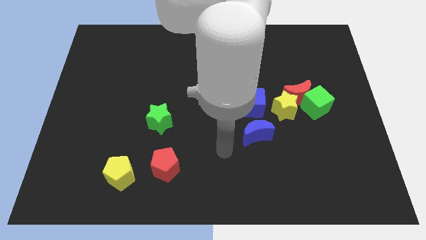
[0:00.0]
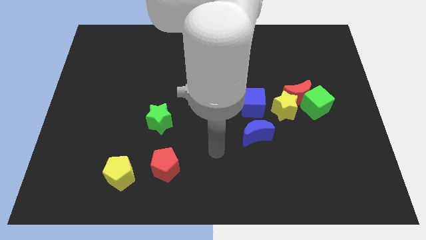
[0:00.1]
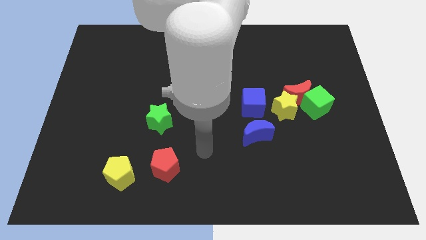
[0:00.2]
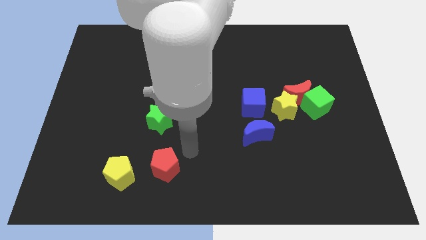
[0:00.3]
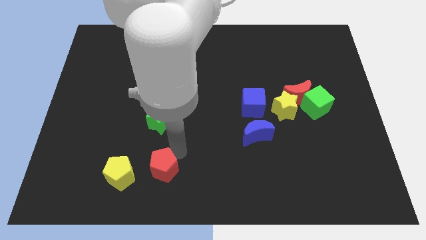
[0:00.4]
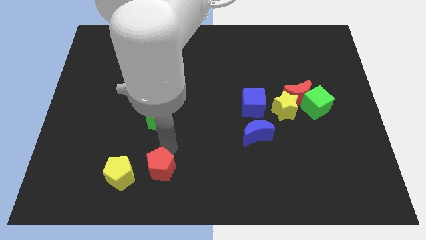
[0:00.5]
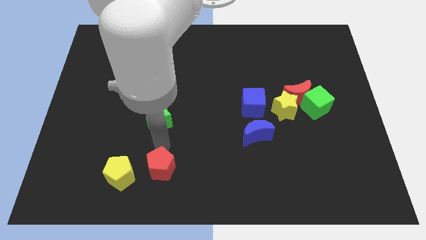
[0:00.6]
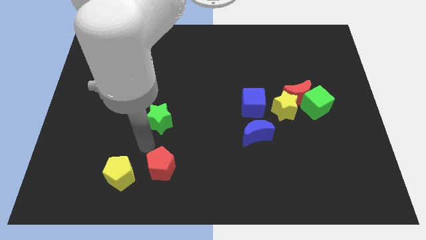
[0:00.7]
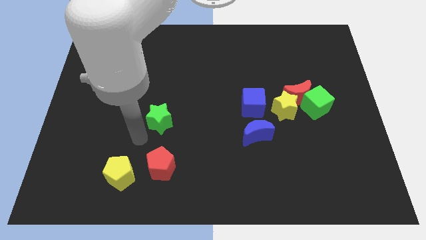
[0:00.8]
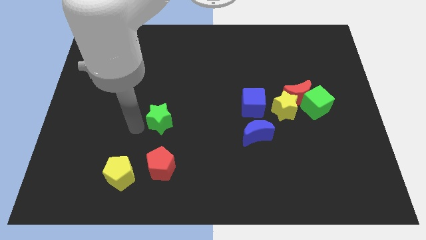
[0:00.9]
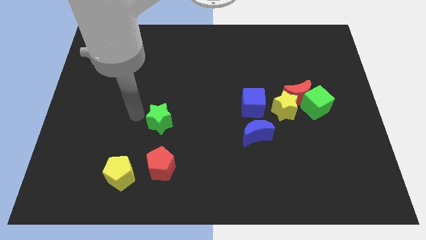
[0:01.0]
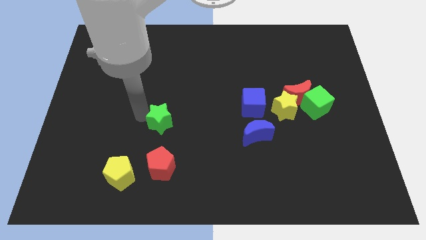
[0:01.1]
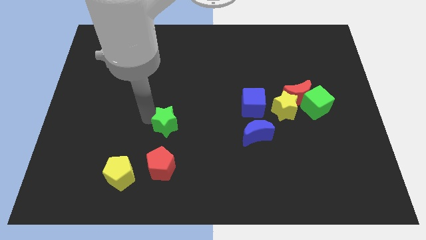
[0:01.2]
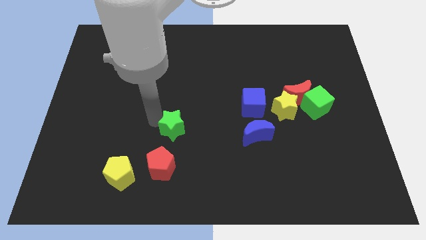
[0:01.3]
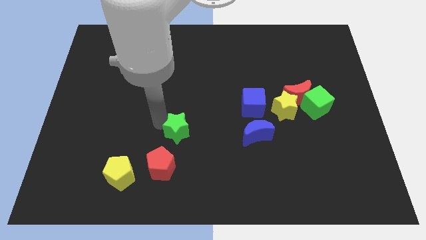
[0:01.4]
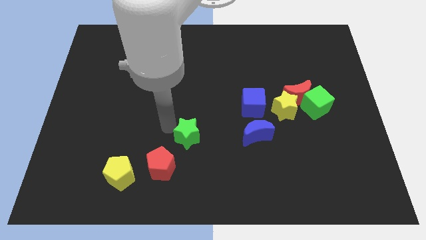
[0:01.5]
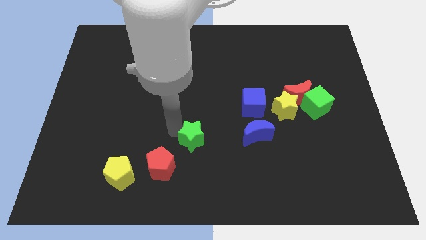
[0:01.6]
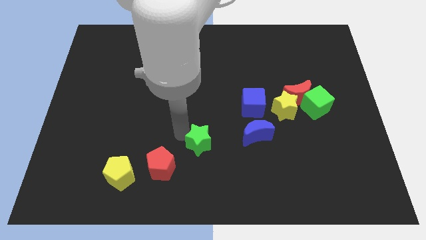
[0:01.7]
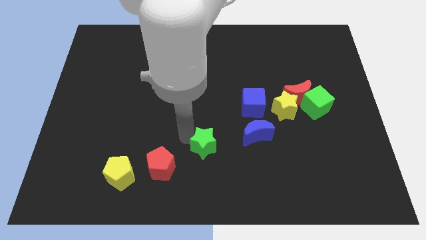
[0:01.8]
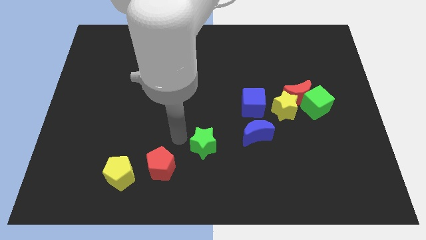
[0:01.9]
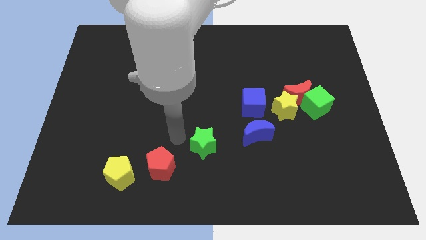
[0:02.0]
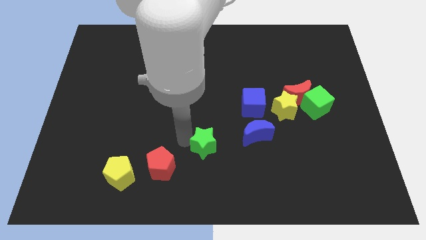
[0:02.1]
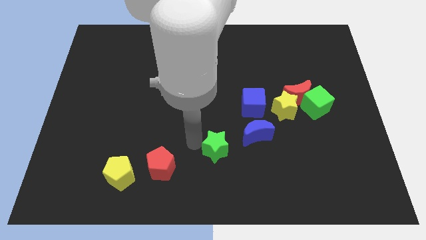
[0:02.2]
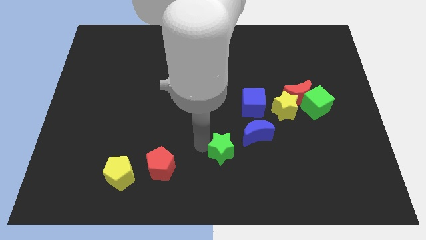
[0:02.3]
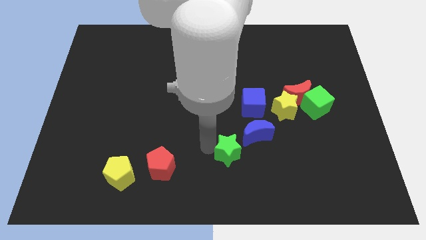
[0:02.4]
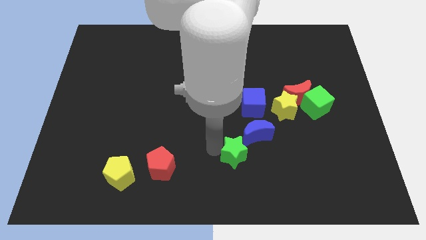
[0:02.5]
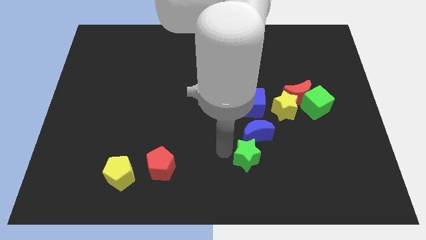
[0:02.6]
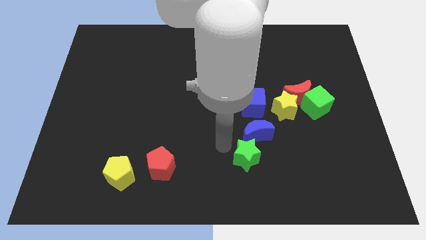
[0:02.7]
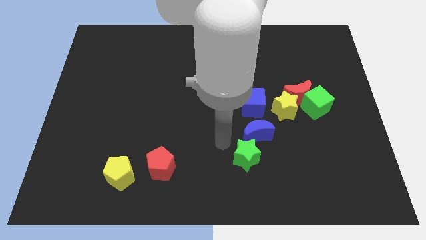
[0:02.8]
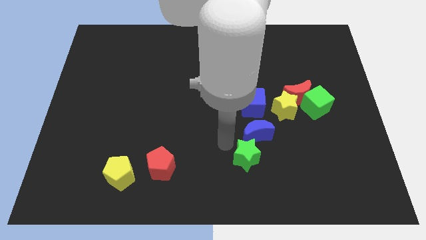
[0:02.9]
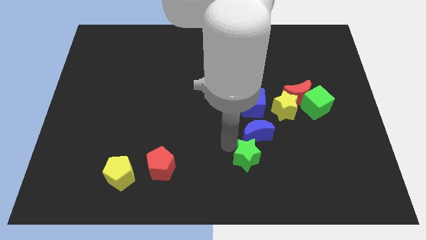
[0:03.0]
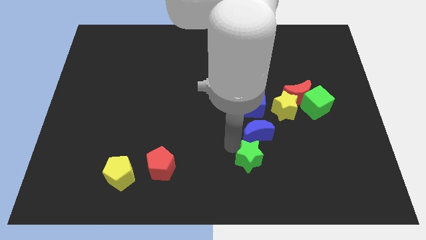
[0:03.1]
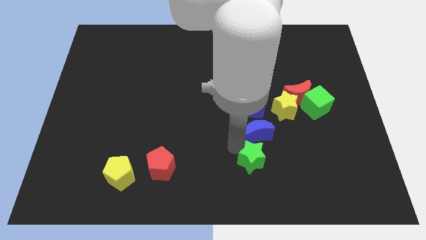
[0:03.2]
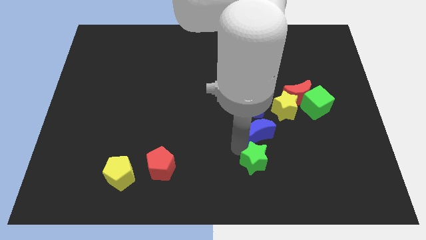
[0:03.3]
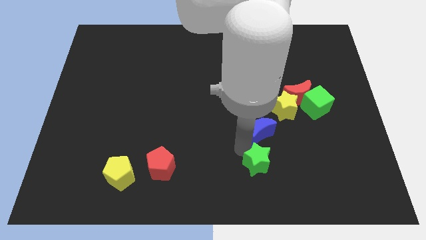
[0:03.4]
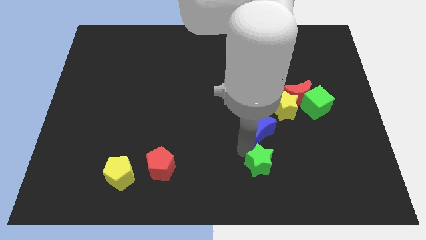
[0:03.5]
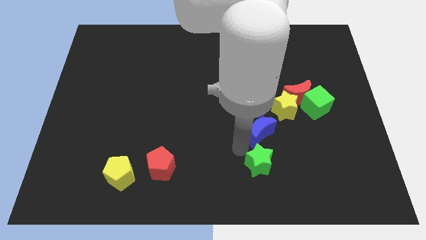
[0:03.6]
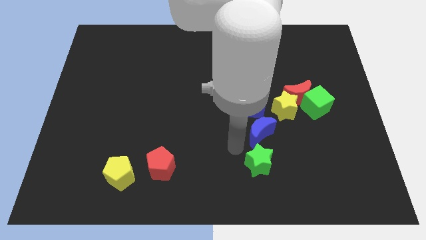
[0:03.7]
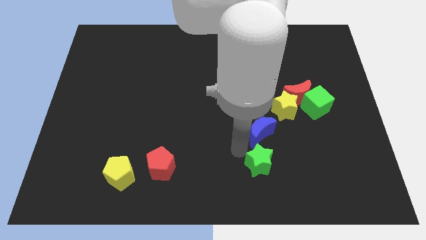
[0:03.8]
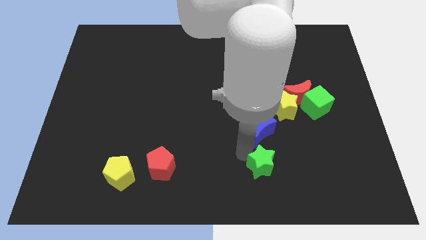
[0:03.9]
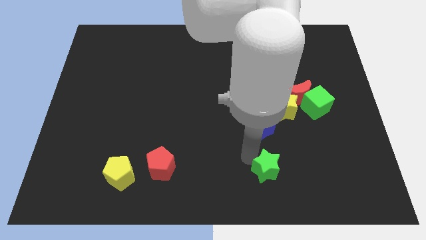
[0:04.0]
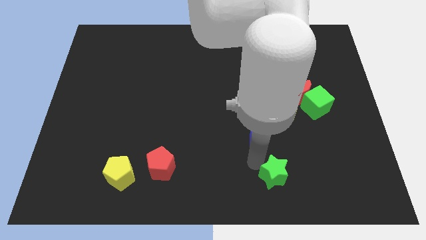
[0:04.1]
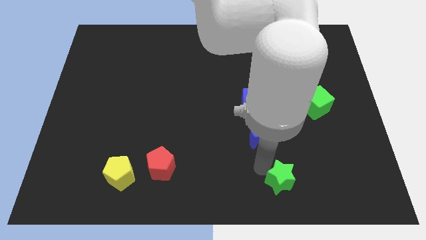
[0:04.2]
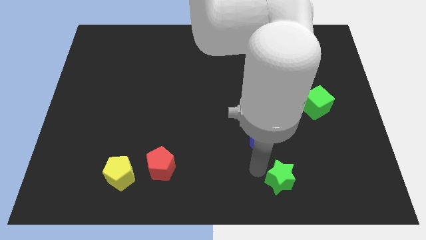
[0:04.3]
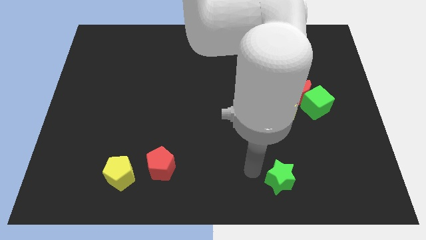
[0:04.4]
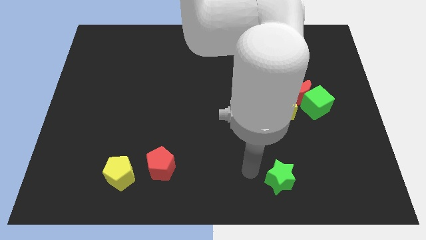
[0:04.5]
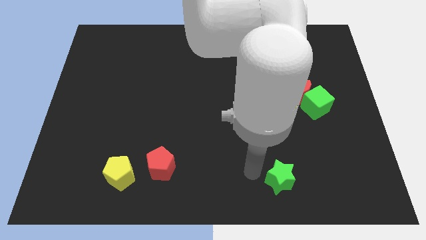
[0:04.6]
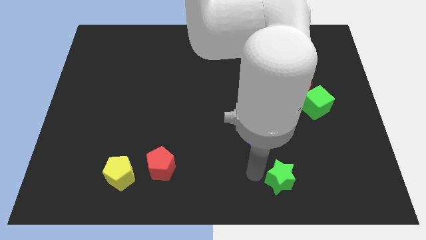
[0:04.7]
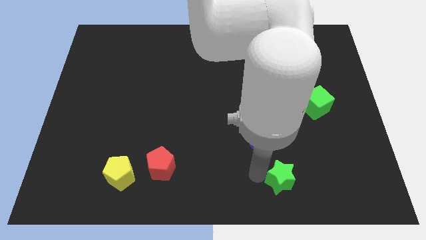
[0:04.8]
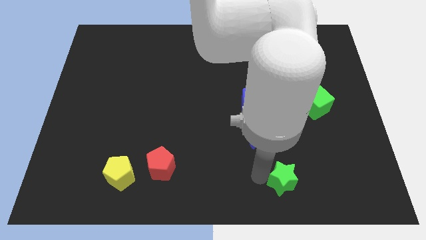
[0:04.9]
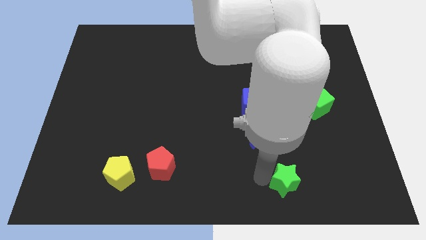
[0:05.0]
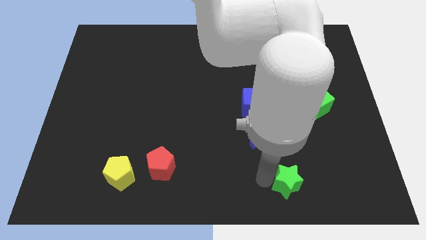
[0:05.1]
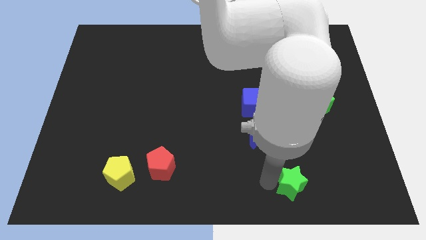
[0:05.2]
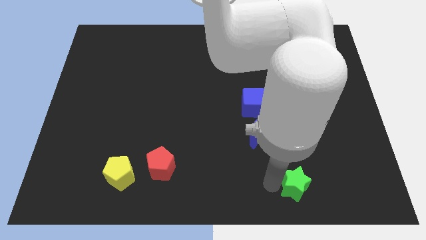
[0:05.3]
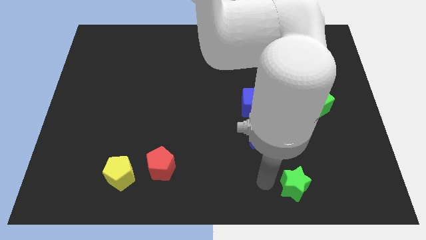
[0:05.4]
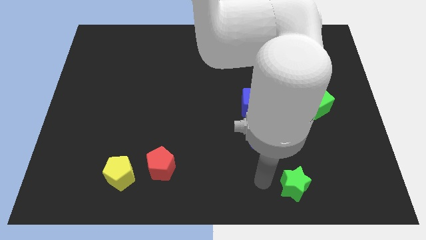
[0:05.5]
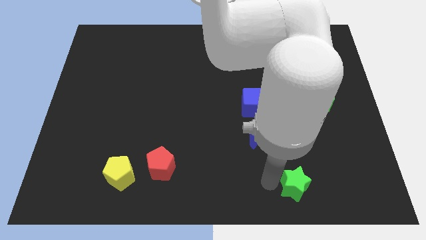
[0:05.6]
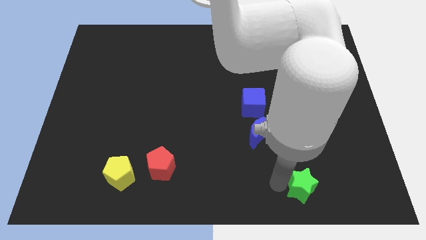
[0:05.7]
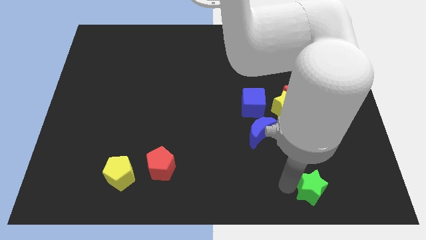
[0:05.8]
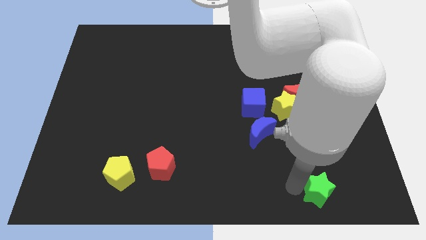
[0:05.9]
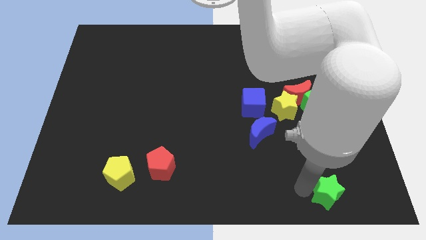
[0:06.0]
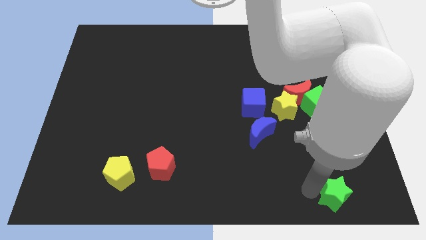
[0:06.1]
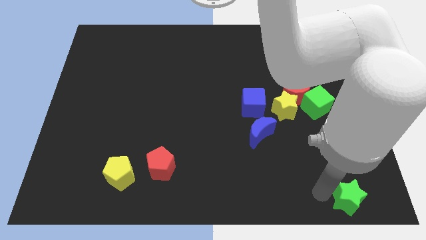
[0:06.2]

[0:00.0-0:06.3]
put the green star to the bottom right corner
